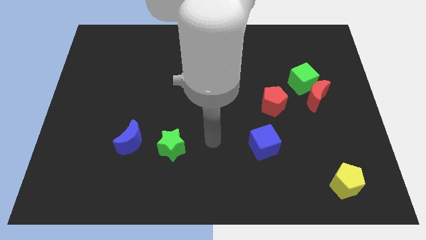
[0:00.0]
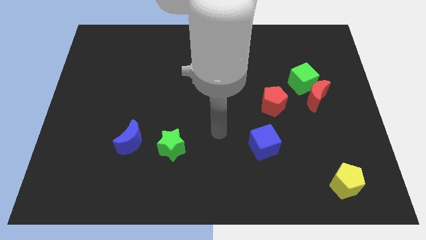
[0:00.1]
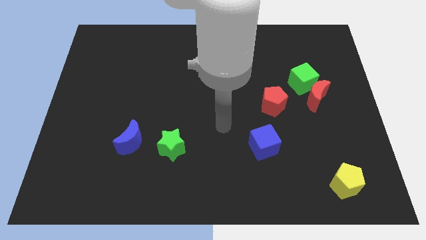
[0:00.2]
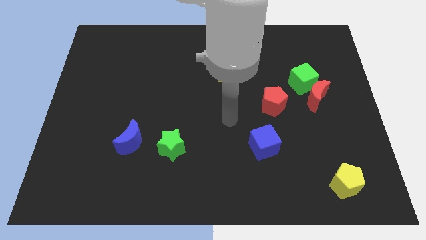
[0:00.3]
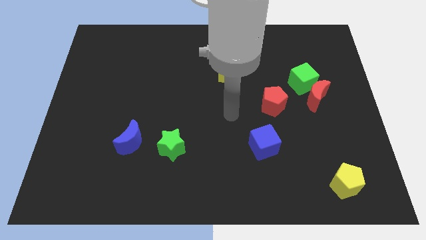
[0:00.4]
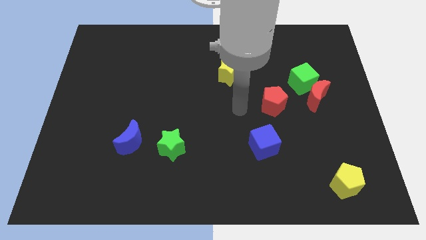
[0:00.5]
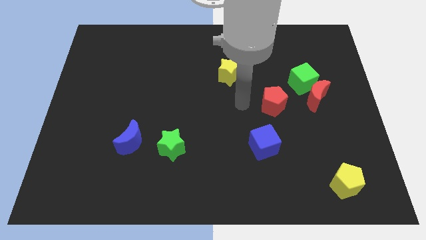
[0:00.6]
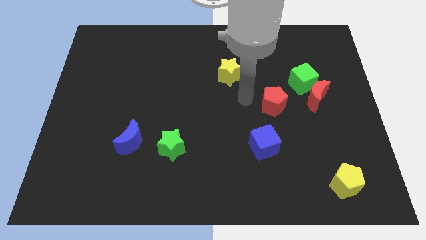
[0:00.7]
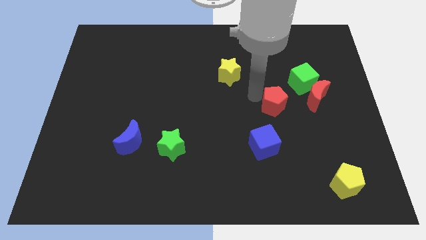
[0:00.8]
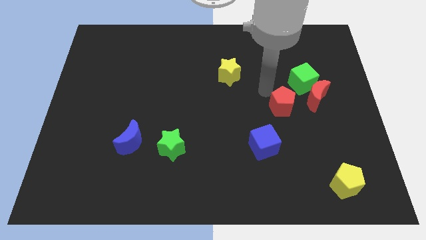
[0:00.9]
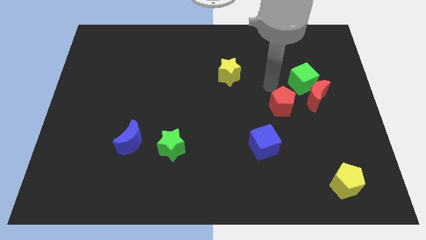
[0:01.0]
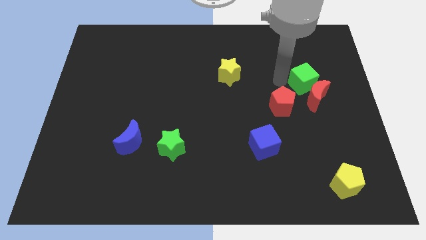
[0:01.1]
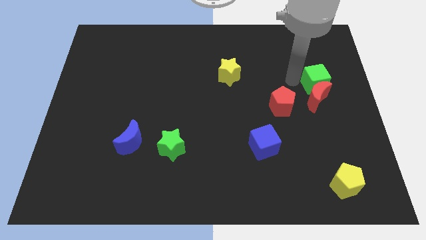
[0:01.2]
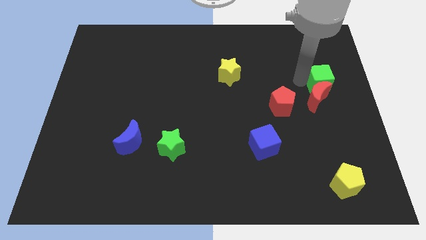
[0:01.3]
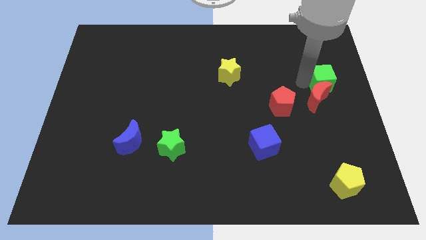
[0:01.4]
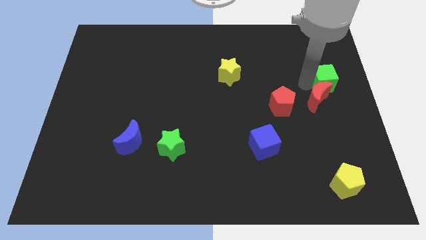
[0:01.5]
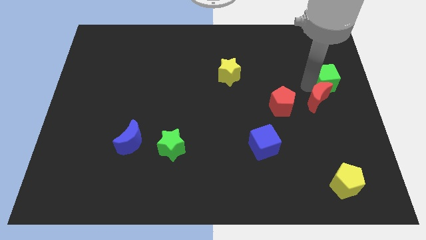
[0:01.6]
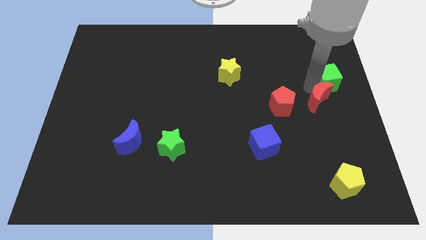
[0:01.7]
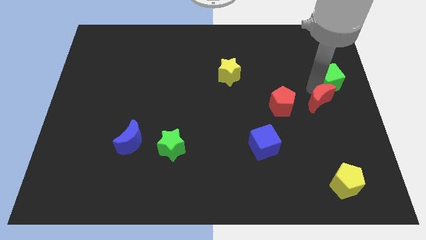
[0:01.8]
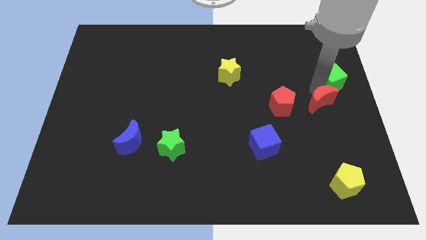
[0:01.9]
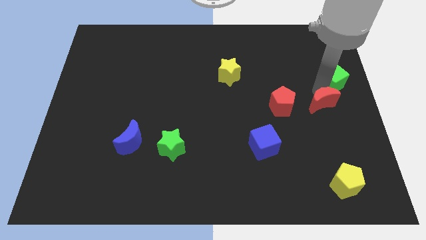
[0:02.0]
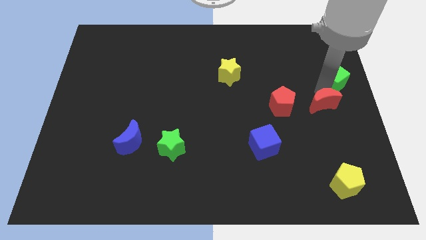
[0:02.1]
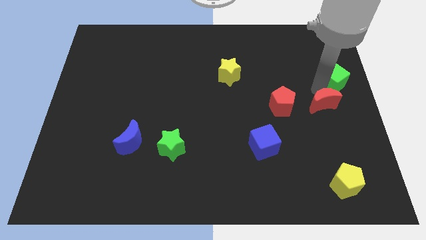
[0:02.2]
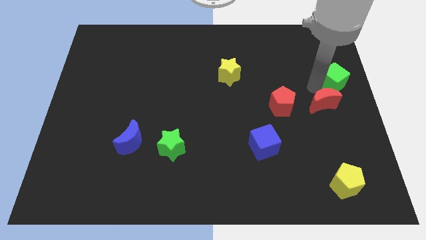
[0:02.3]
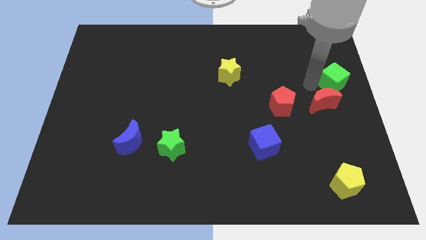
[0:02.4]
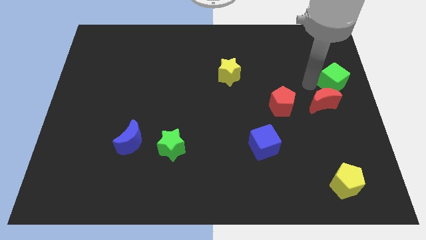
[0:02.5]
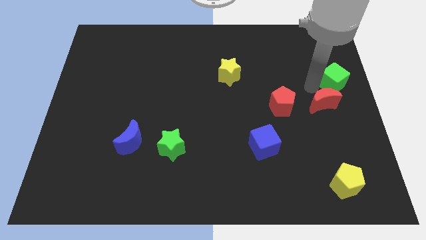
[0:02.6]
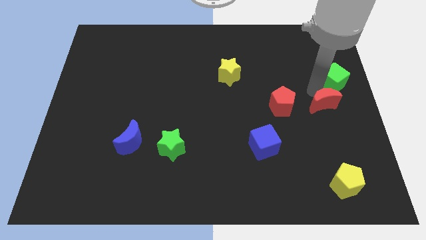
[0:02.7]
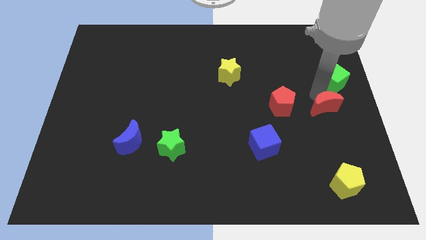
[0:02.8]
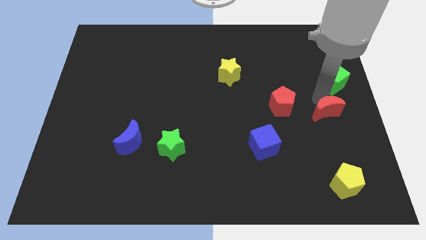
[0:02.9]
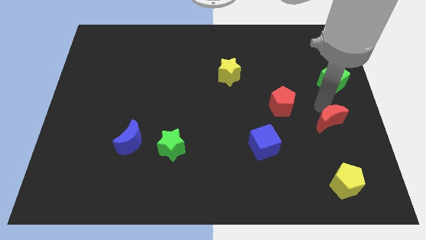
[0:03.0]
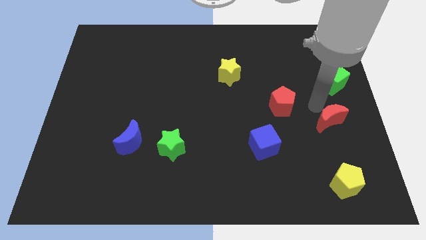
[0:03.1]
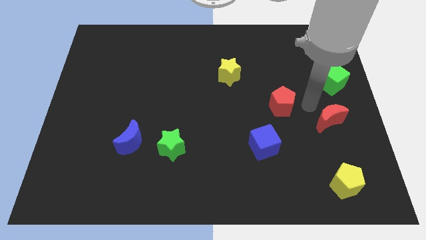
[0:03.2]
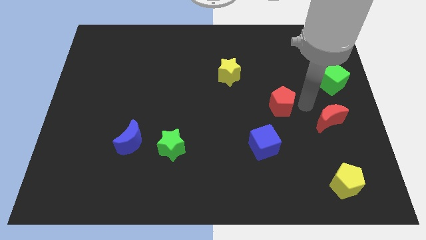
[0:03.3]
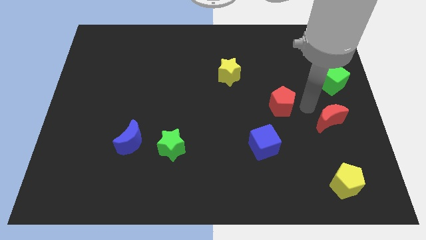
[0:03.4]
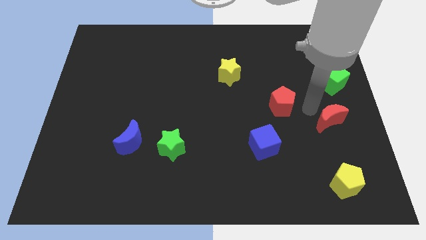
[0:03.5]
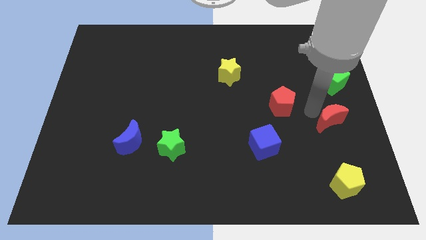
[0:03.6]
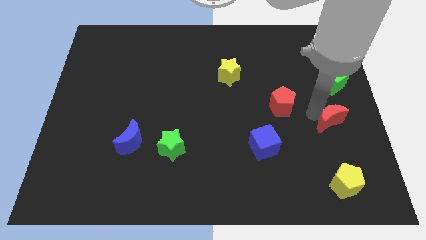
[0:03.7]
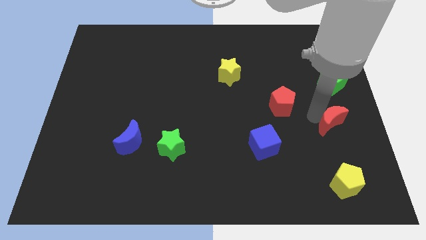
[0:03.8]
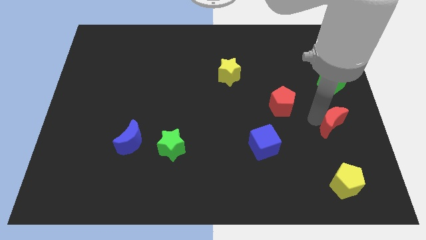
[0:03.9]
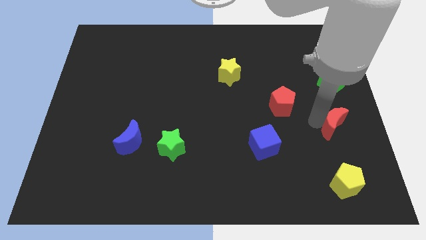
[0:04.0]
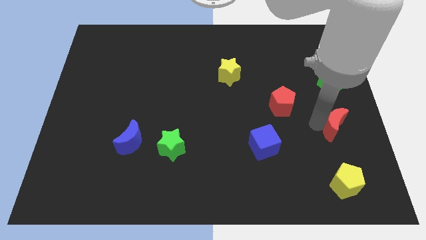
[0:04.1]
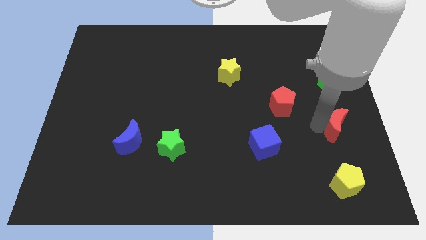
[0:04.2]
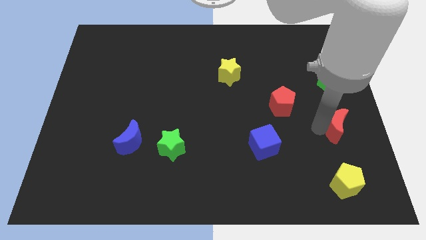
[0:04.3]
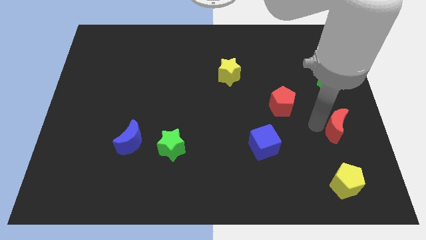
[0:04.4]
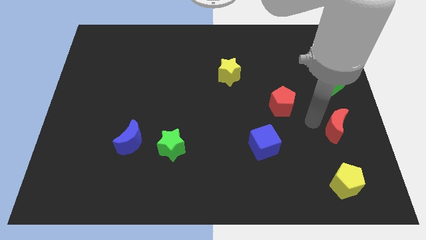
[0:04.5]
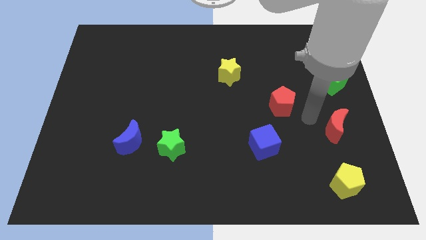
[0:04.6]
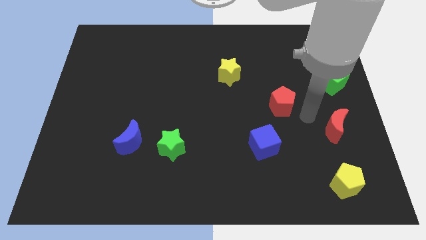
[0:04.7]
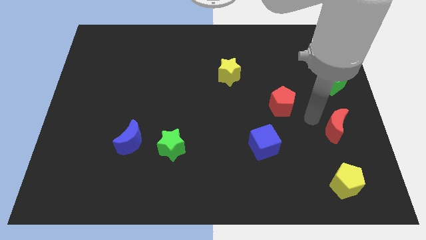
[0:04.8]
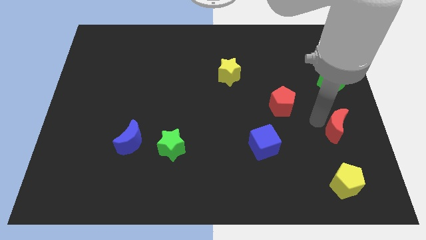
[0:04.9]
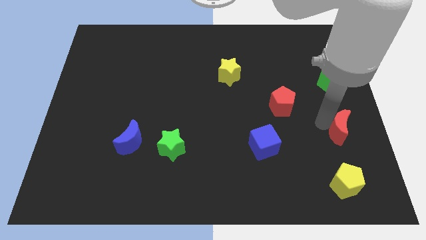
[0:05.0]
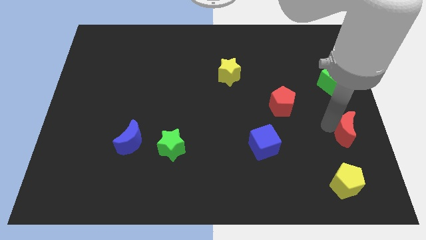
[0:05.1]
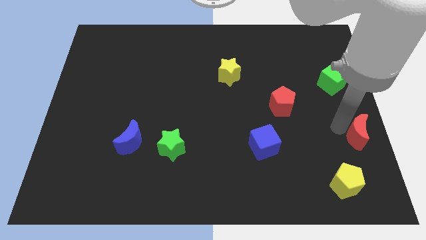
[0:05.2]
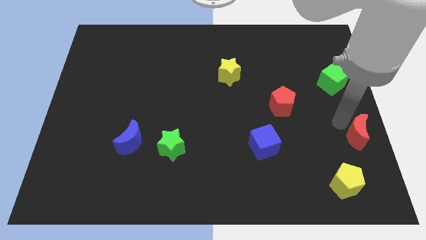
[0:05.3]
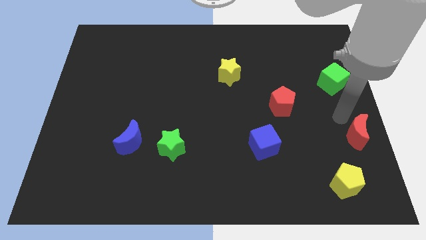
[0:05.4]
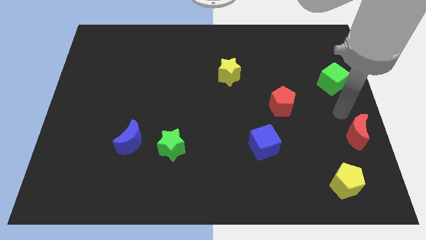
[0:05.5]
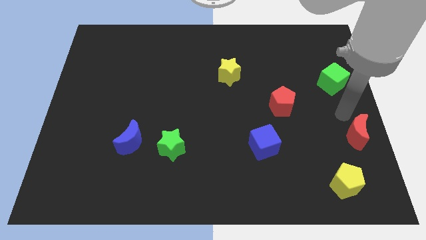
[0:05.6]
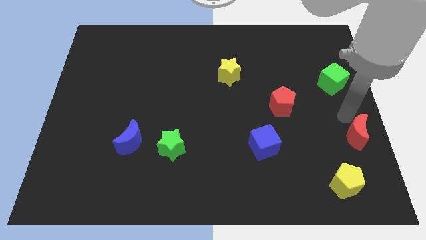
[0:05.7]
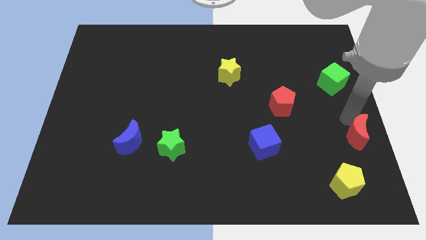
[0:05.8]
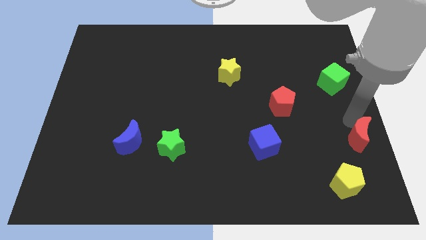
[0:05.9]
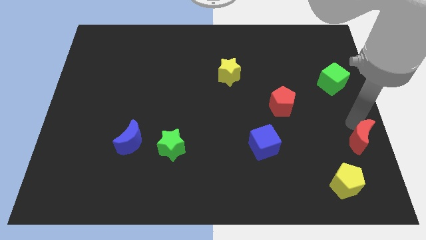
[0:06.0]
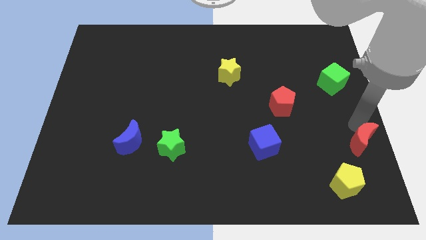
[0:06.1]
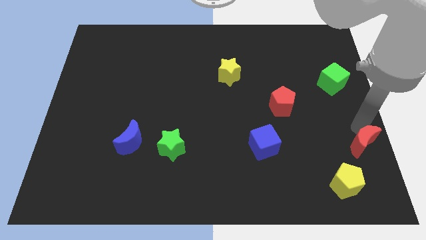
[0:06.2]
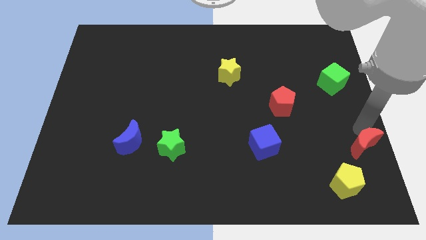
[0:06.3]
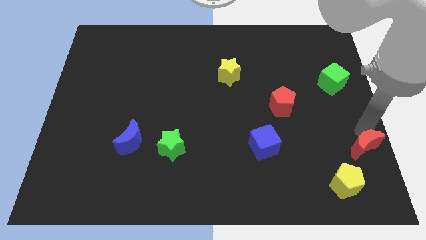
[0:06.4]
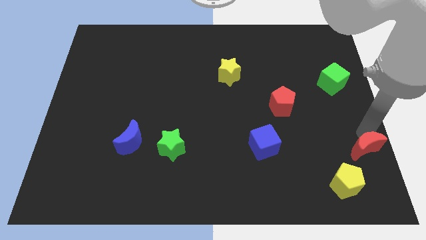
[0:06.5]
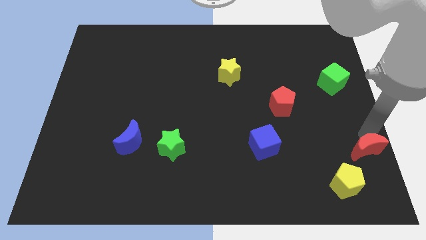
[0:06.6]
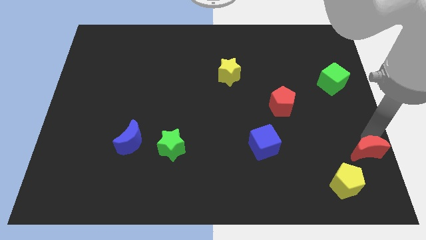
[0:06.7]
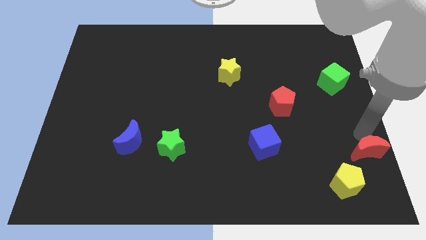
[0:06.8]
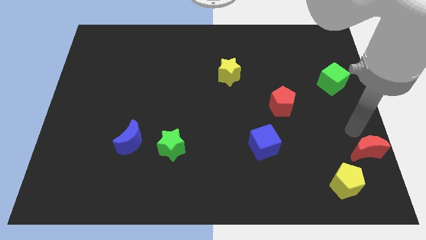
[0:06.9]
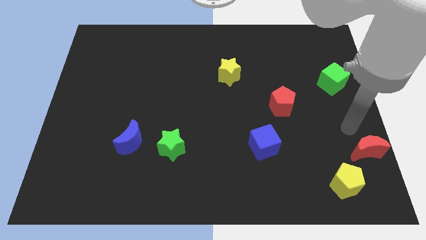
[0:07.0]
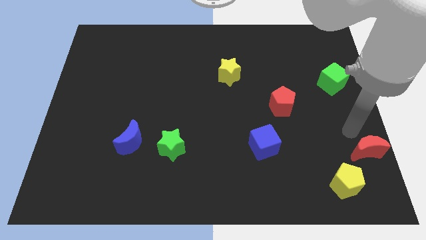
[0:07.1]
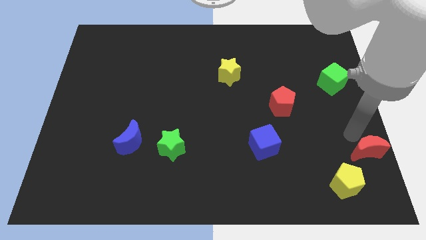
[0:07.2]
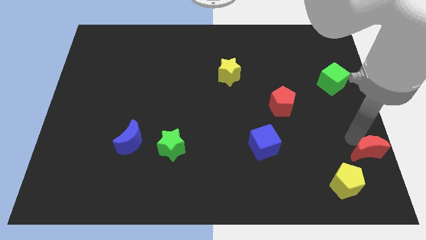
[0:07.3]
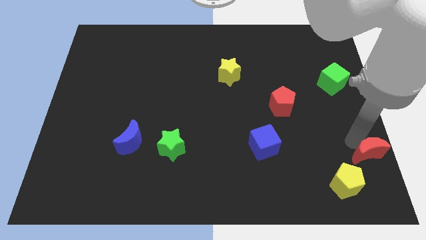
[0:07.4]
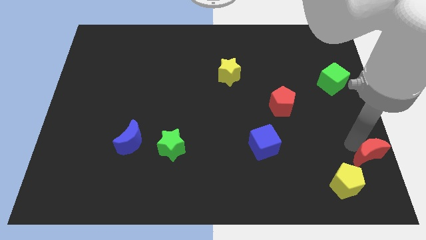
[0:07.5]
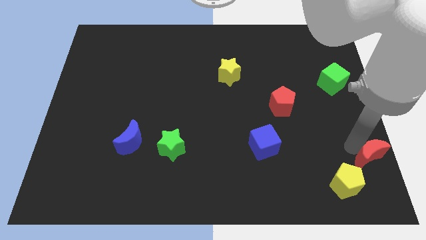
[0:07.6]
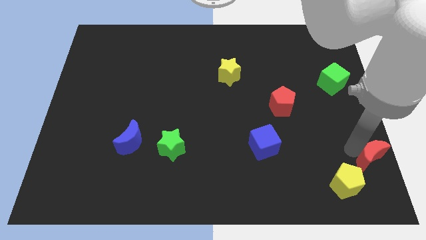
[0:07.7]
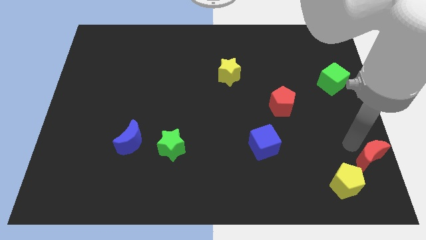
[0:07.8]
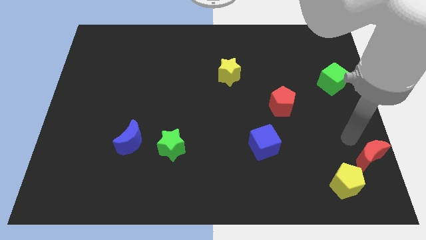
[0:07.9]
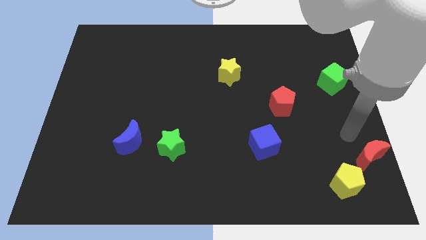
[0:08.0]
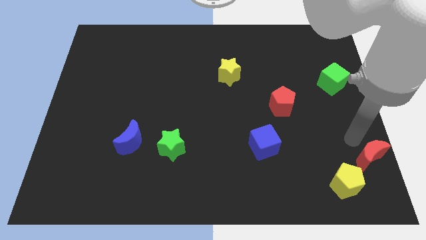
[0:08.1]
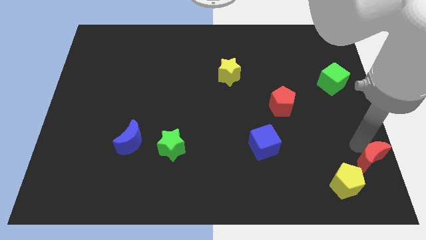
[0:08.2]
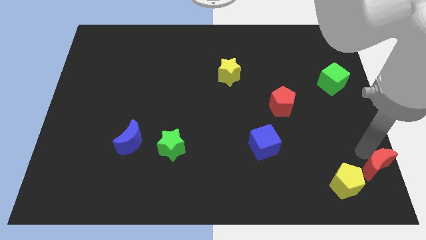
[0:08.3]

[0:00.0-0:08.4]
push the red moon to the bottom right
